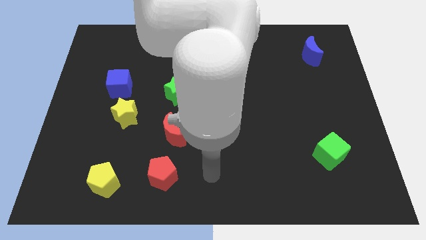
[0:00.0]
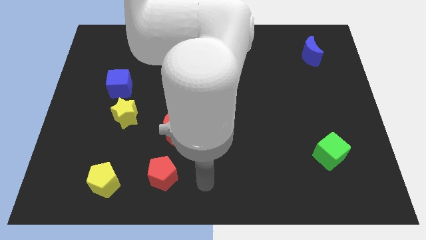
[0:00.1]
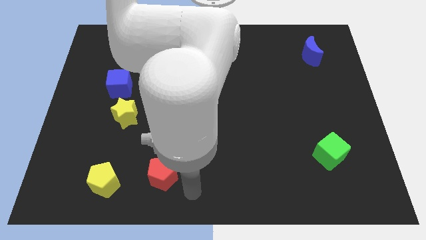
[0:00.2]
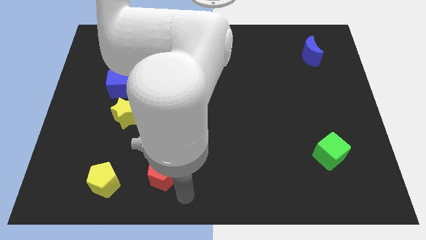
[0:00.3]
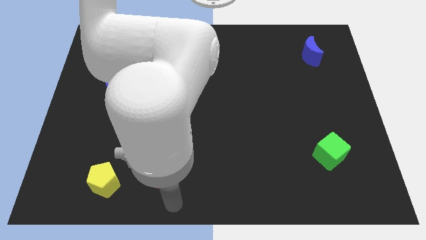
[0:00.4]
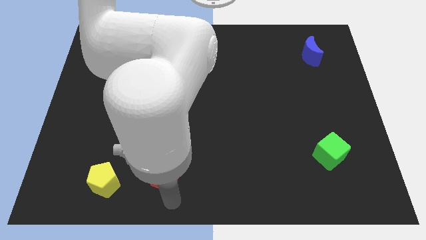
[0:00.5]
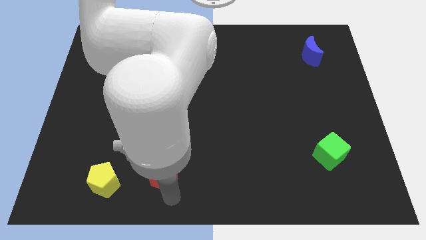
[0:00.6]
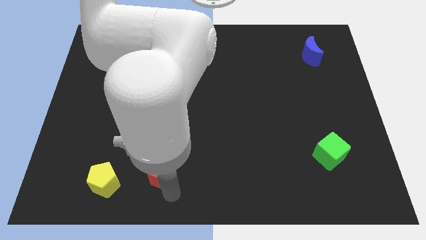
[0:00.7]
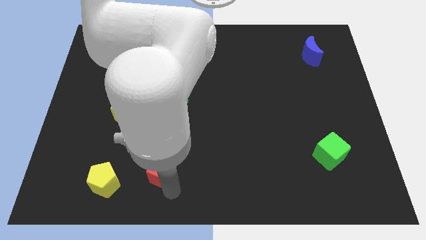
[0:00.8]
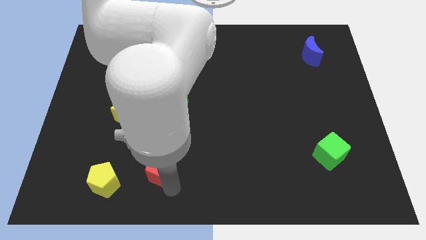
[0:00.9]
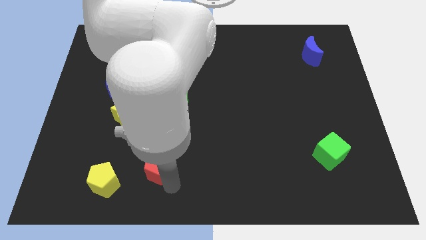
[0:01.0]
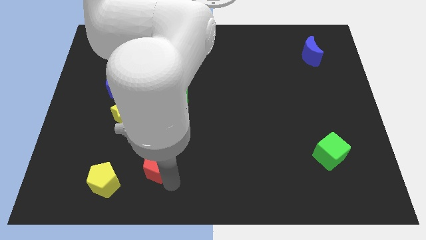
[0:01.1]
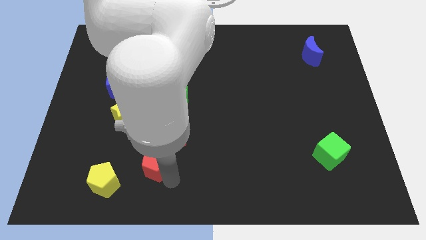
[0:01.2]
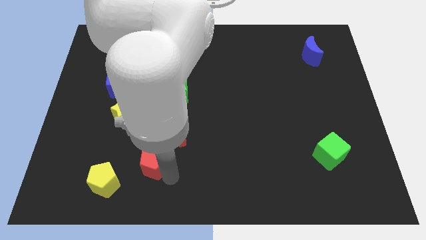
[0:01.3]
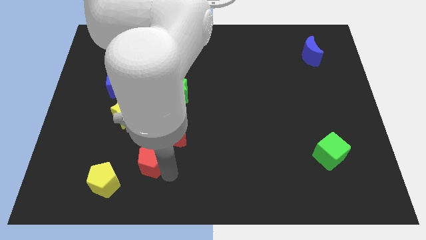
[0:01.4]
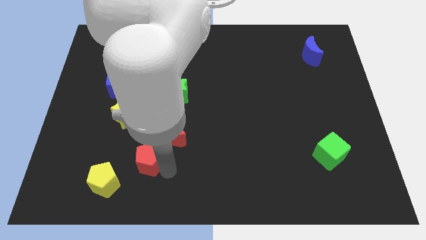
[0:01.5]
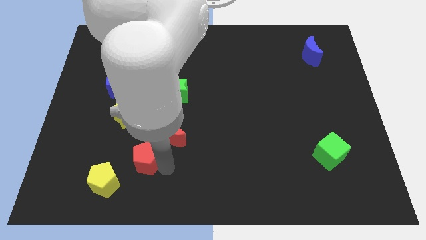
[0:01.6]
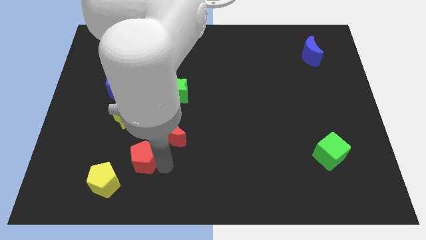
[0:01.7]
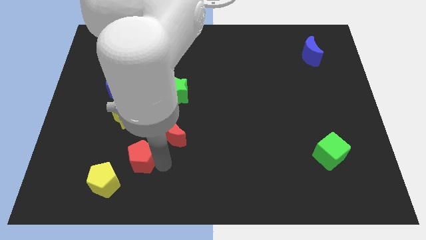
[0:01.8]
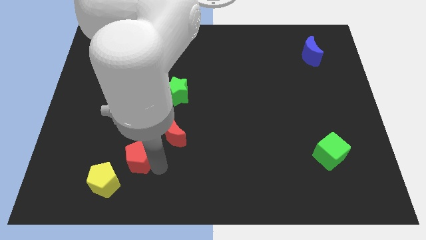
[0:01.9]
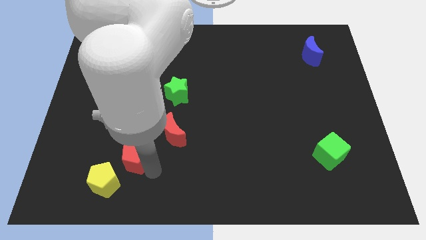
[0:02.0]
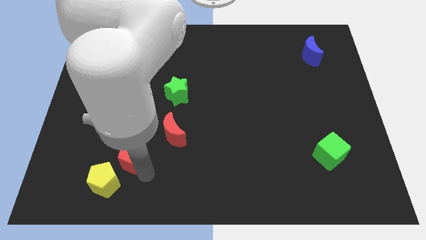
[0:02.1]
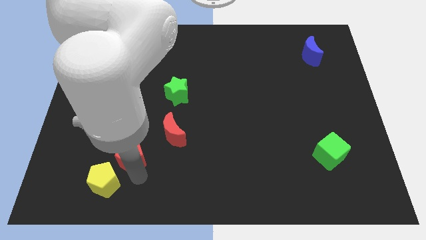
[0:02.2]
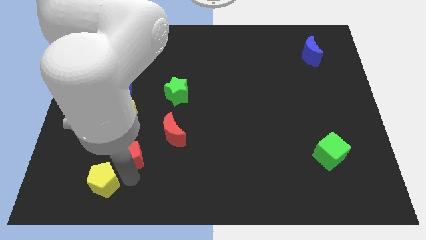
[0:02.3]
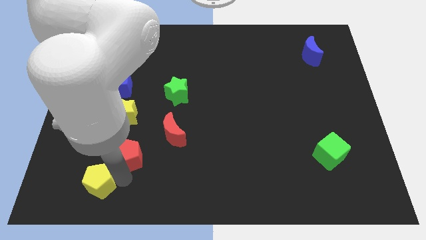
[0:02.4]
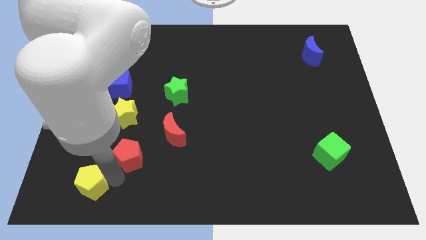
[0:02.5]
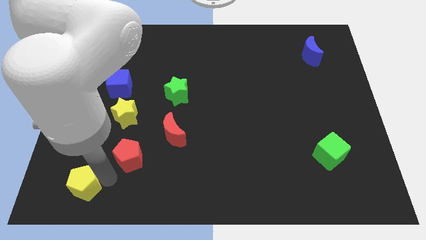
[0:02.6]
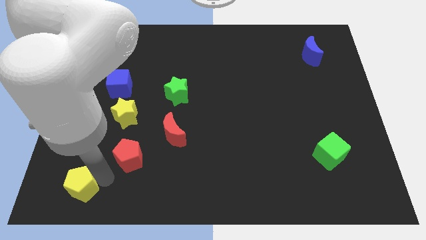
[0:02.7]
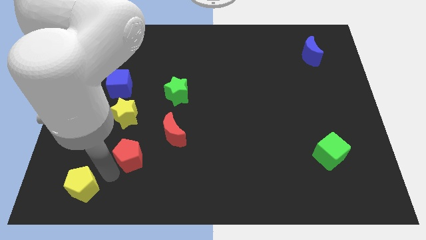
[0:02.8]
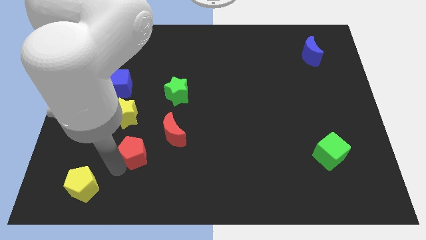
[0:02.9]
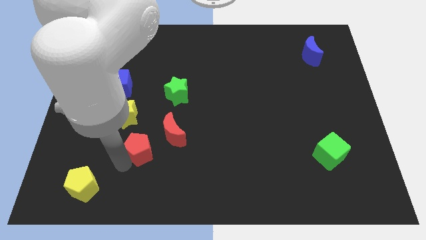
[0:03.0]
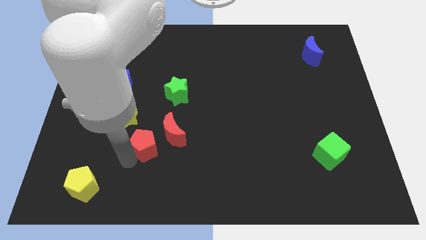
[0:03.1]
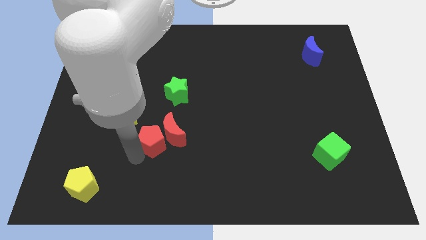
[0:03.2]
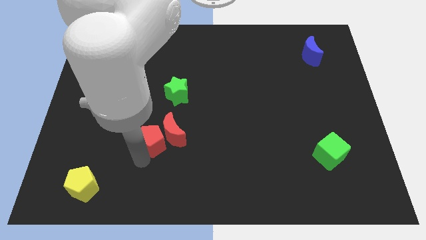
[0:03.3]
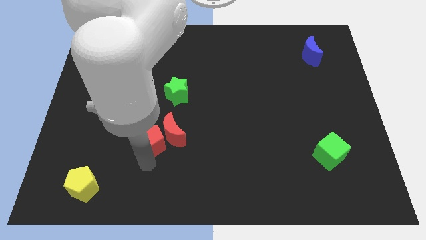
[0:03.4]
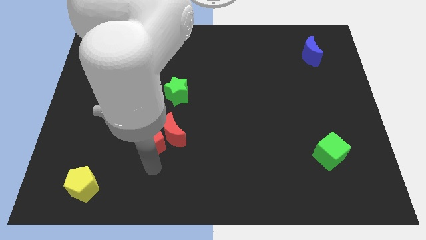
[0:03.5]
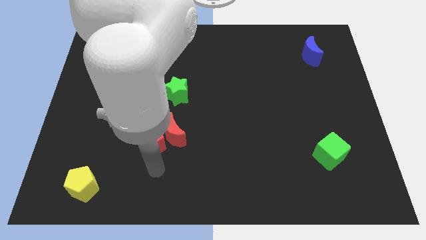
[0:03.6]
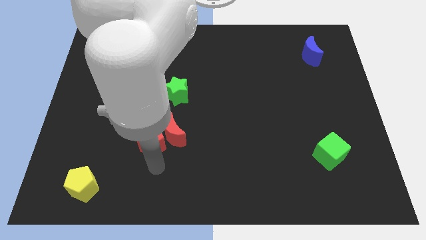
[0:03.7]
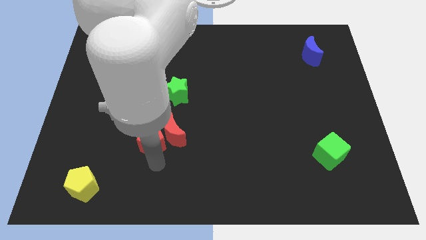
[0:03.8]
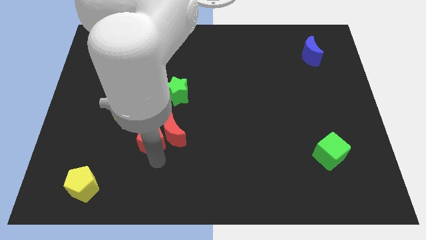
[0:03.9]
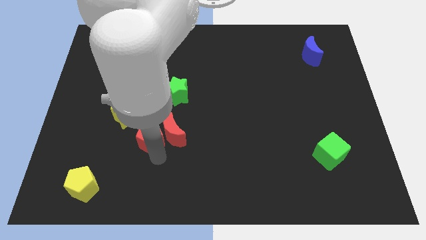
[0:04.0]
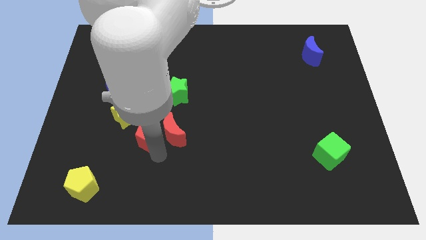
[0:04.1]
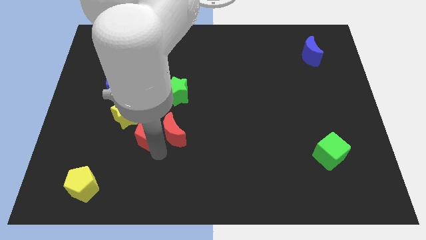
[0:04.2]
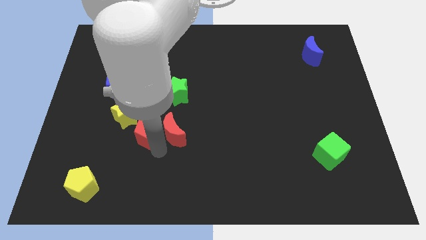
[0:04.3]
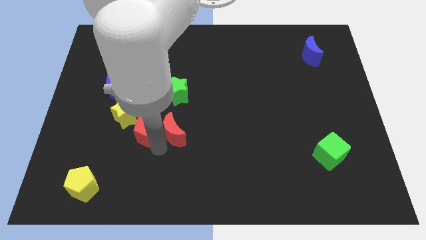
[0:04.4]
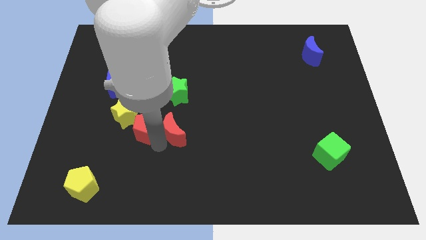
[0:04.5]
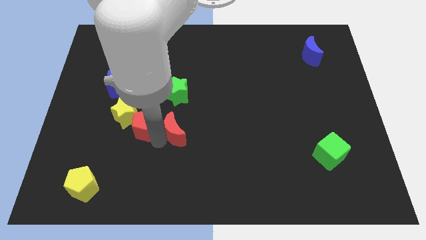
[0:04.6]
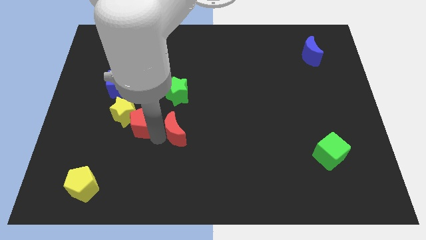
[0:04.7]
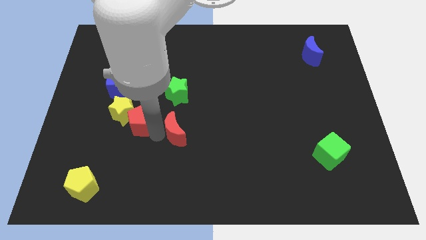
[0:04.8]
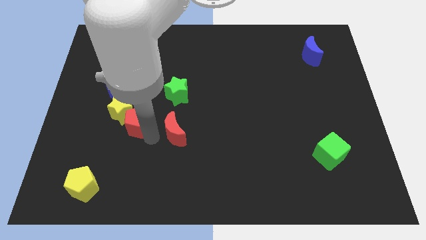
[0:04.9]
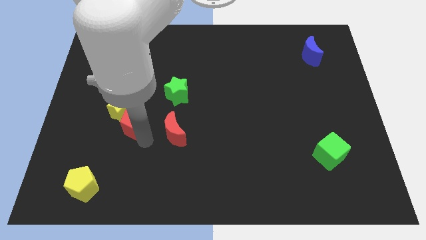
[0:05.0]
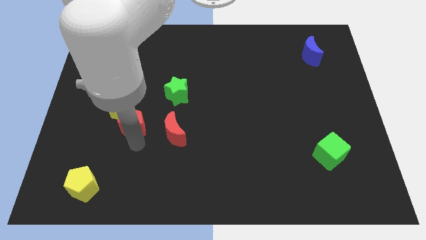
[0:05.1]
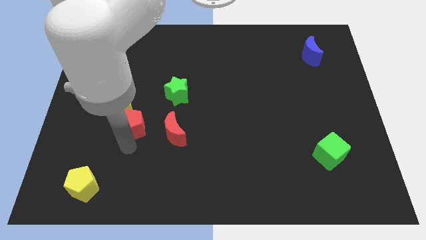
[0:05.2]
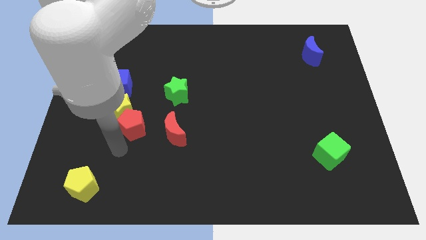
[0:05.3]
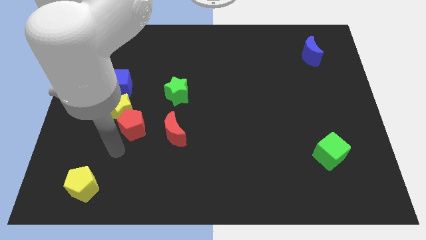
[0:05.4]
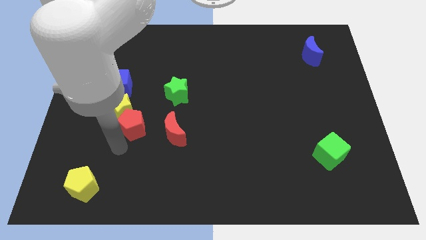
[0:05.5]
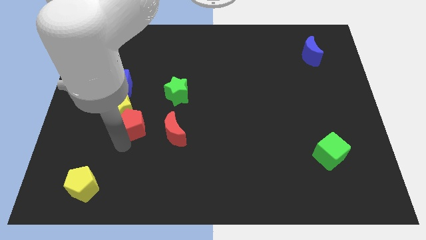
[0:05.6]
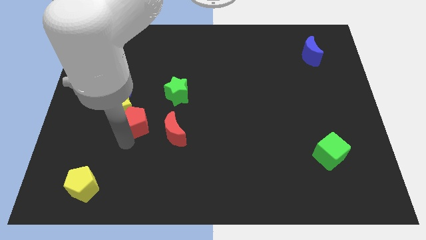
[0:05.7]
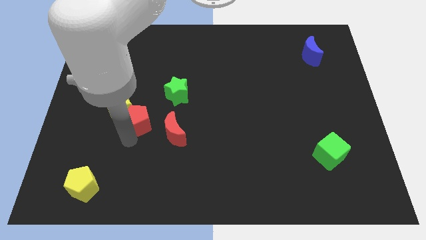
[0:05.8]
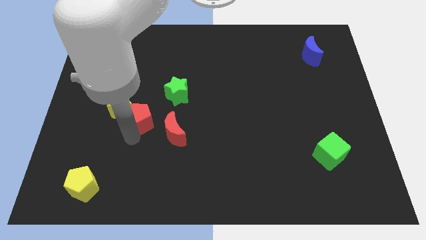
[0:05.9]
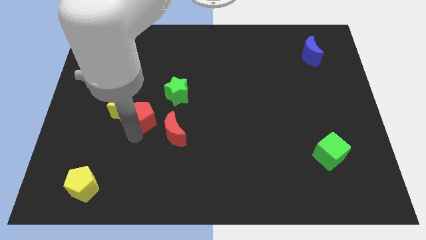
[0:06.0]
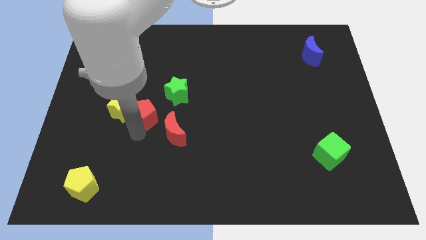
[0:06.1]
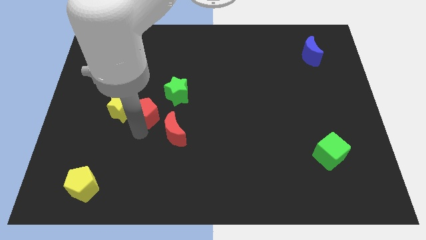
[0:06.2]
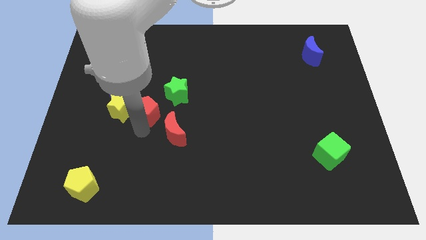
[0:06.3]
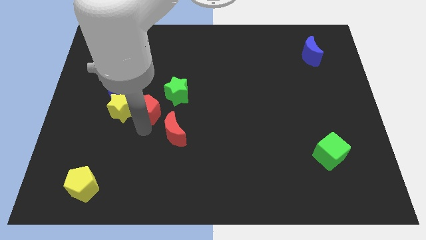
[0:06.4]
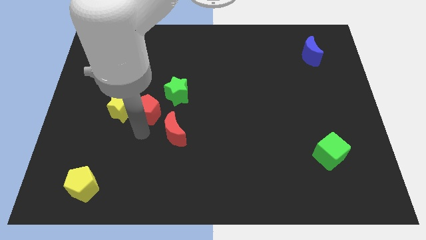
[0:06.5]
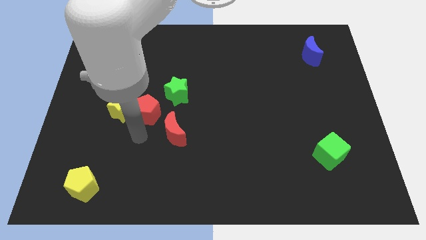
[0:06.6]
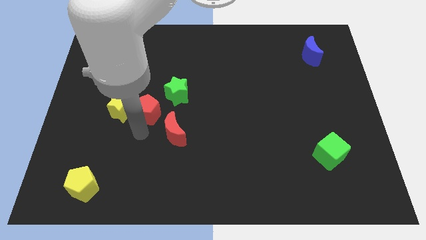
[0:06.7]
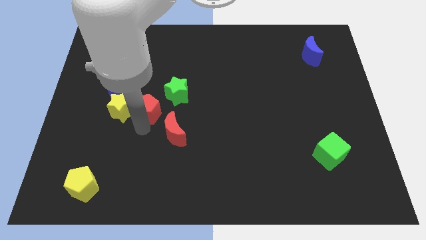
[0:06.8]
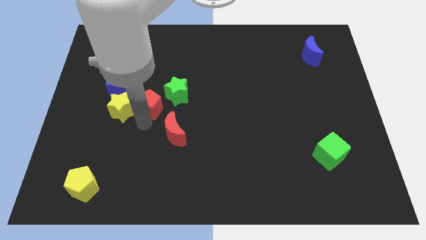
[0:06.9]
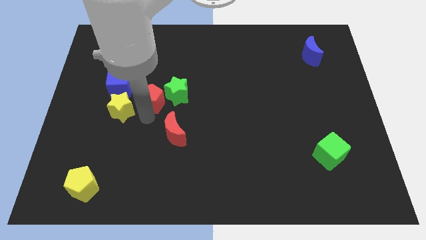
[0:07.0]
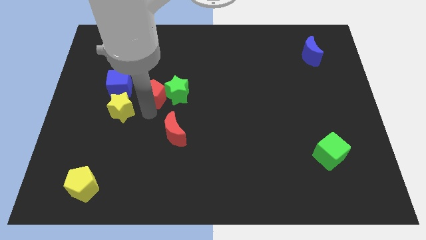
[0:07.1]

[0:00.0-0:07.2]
push the red pentagon upwards

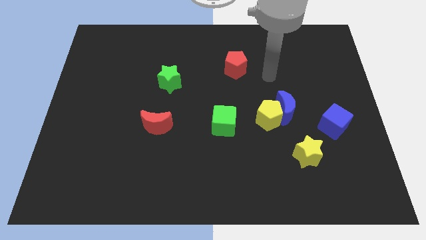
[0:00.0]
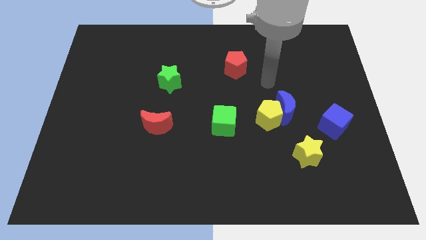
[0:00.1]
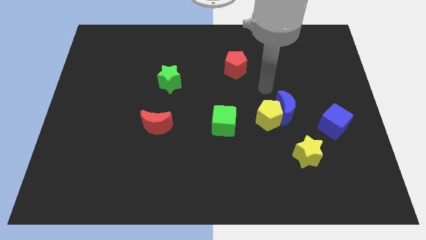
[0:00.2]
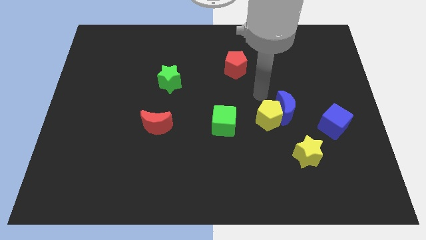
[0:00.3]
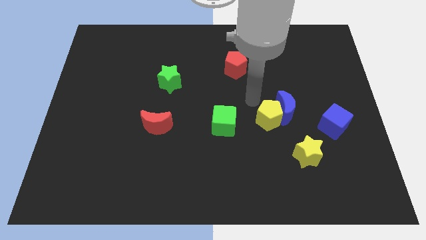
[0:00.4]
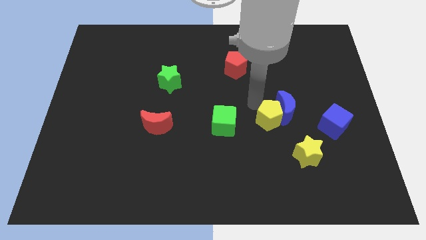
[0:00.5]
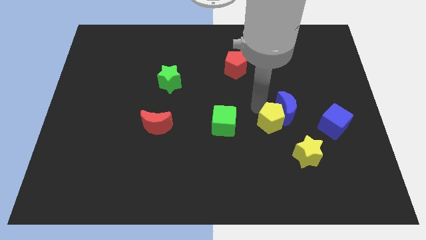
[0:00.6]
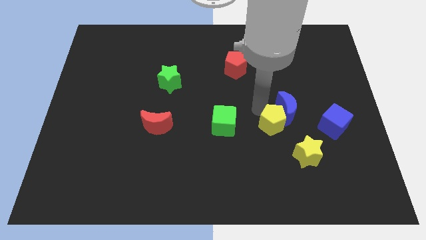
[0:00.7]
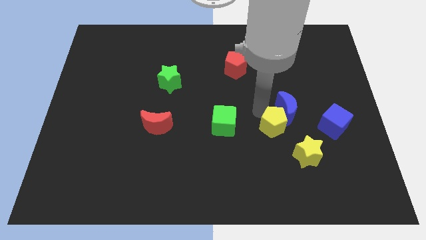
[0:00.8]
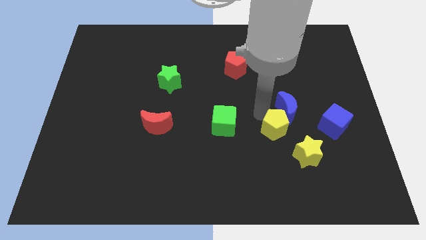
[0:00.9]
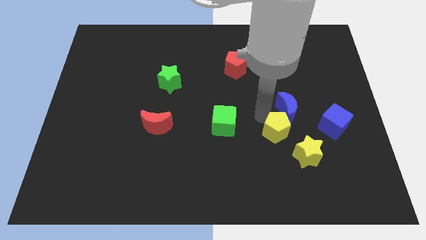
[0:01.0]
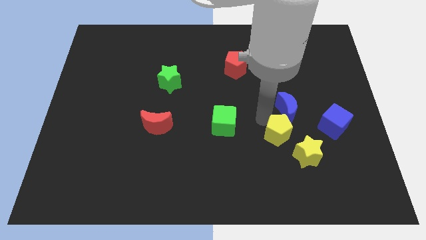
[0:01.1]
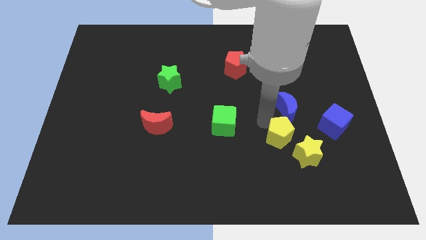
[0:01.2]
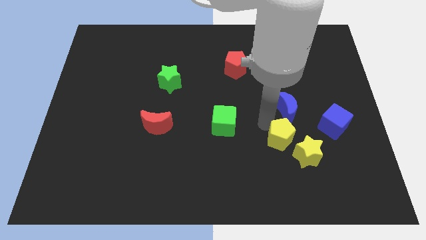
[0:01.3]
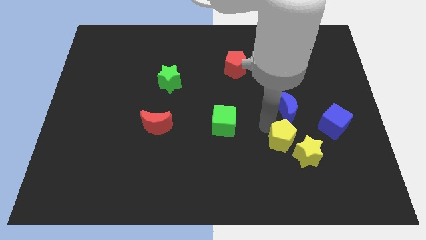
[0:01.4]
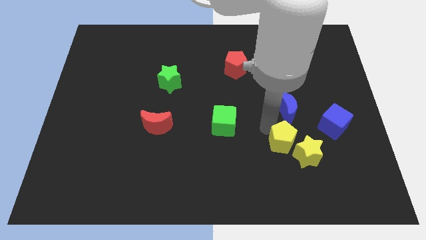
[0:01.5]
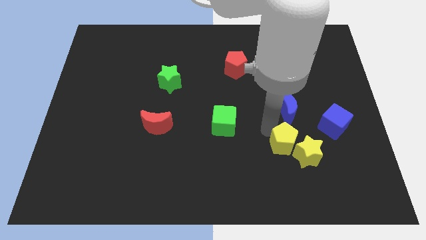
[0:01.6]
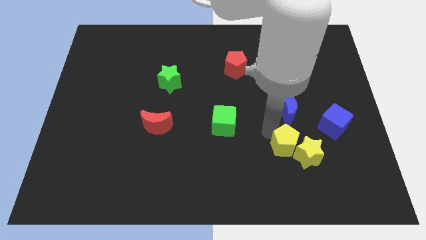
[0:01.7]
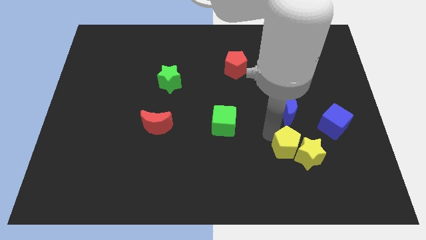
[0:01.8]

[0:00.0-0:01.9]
push the yellow pentagon a little down and to the right diagonally
